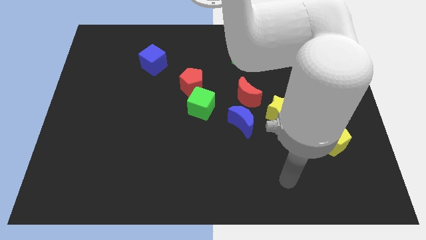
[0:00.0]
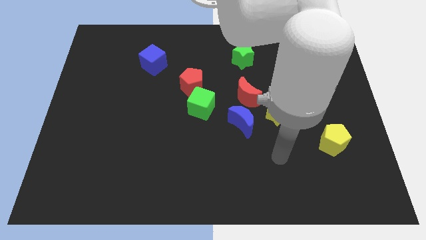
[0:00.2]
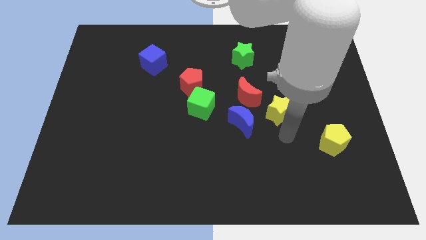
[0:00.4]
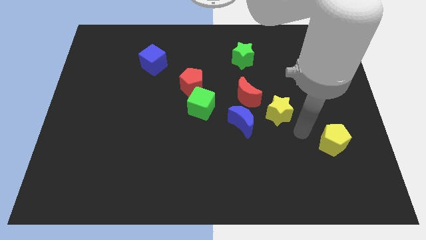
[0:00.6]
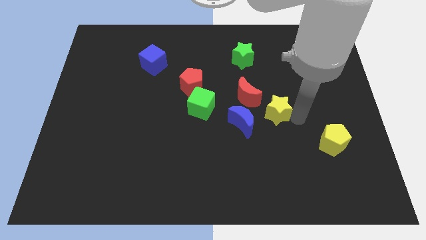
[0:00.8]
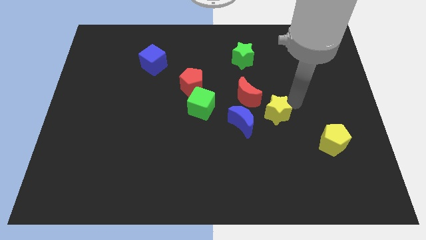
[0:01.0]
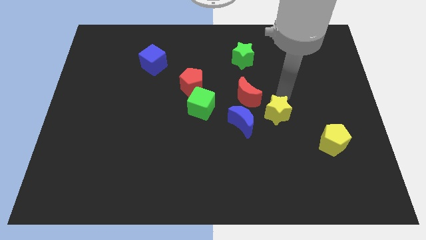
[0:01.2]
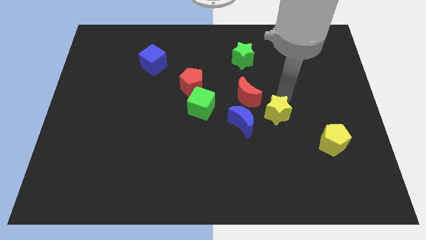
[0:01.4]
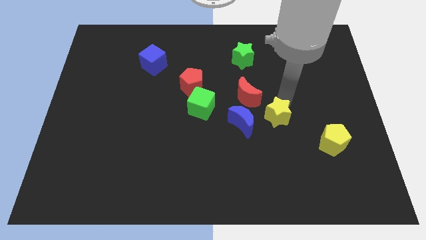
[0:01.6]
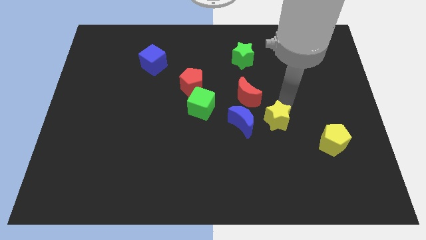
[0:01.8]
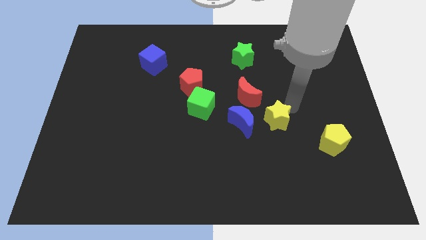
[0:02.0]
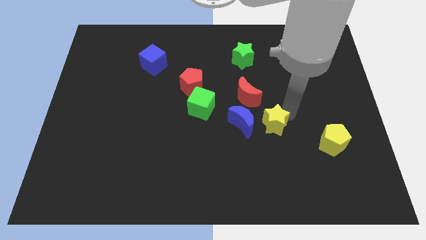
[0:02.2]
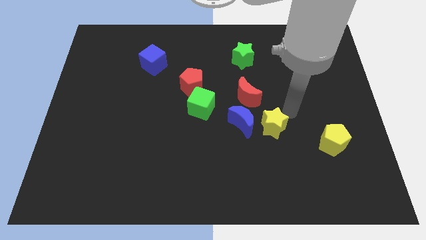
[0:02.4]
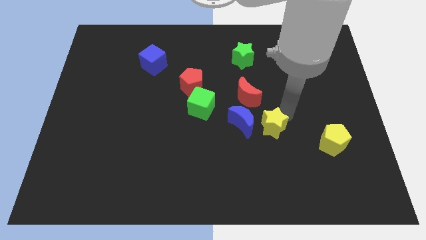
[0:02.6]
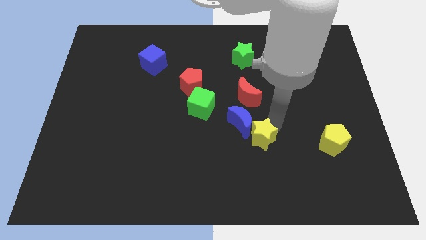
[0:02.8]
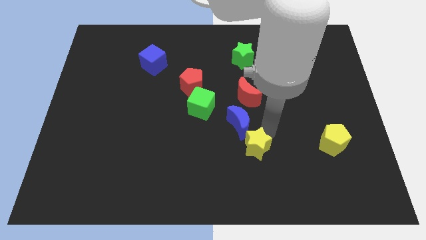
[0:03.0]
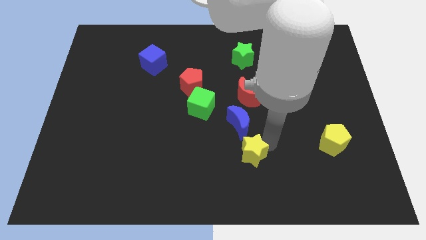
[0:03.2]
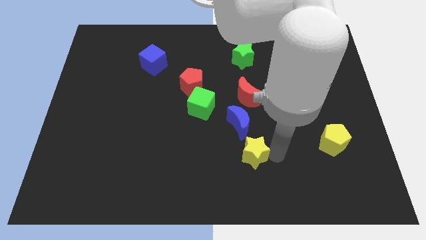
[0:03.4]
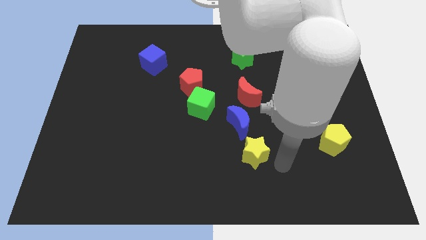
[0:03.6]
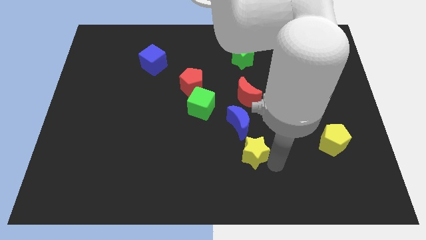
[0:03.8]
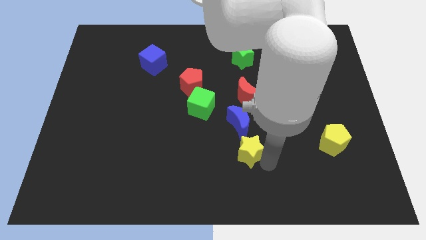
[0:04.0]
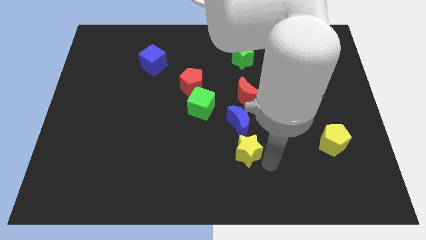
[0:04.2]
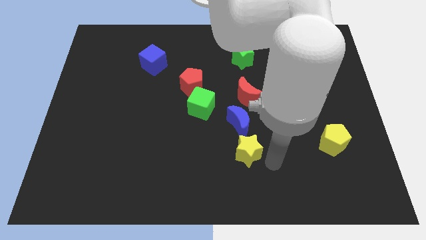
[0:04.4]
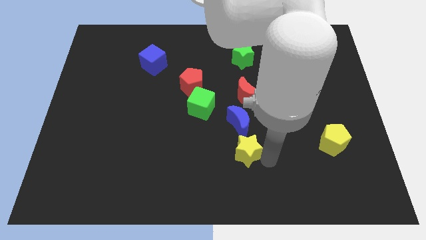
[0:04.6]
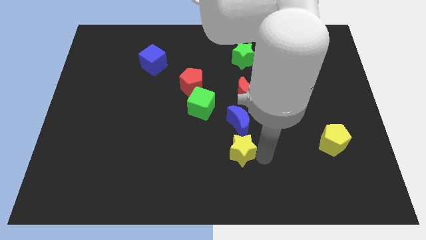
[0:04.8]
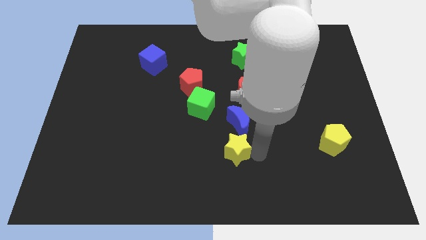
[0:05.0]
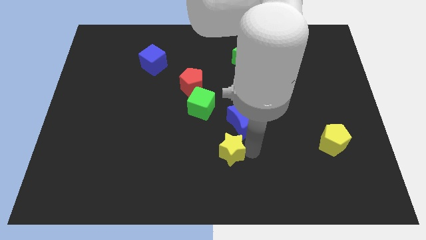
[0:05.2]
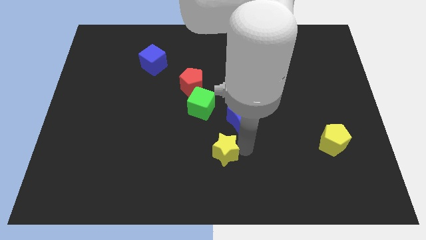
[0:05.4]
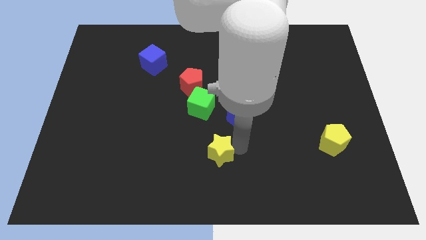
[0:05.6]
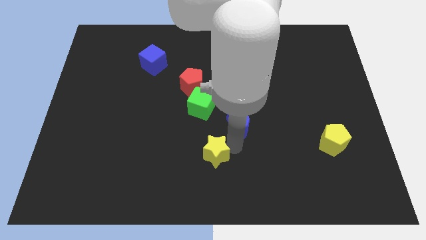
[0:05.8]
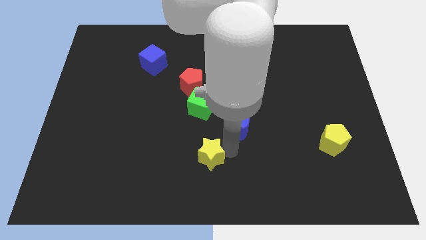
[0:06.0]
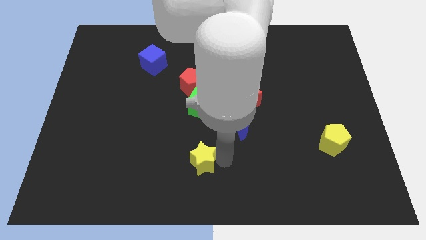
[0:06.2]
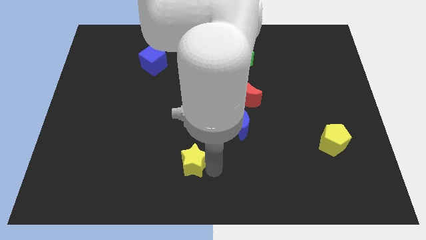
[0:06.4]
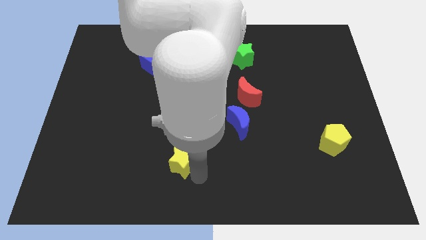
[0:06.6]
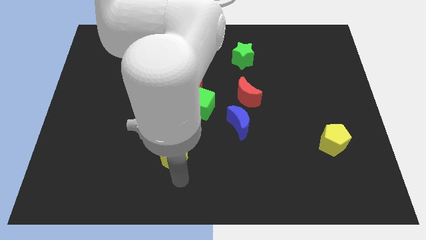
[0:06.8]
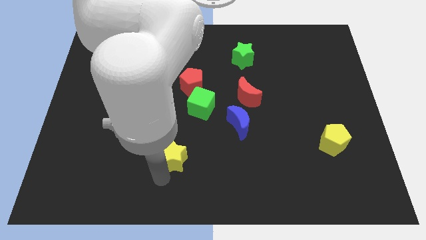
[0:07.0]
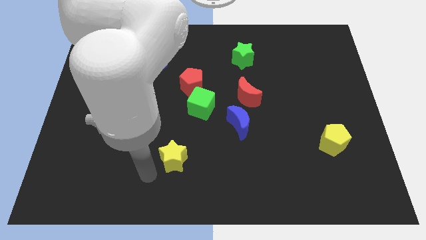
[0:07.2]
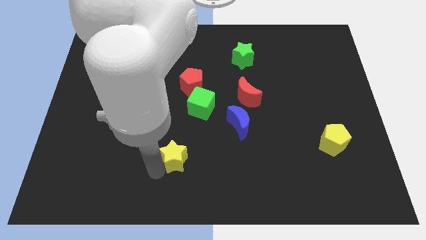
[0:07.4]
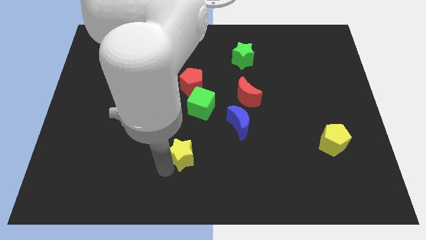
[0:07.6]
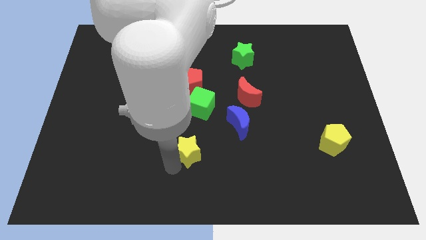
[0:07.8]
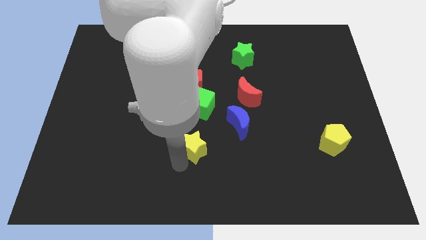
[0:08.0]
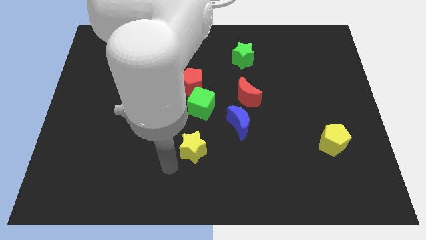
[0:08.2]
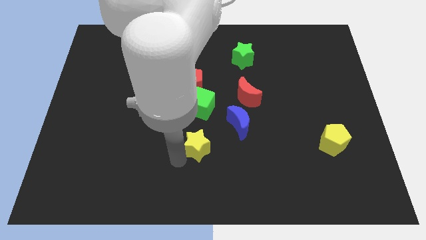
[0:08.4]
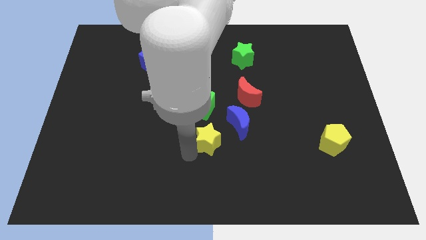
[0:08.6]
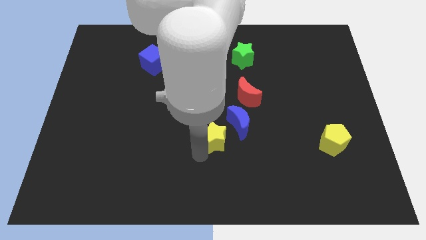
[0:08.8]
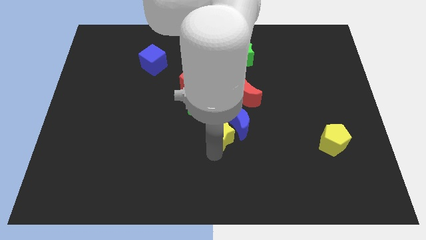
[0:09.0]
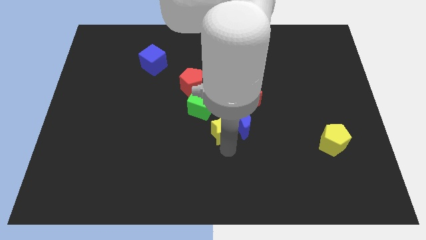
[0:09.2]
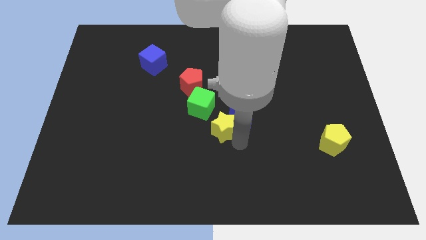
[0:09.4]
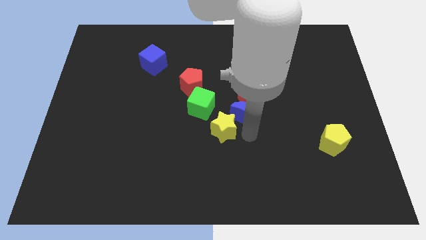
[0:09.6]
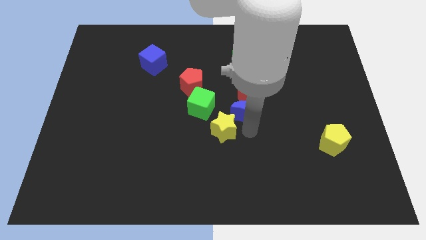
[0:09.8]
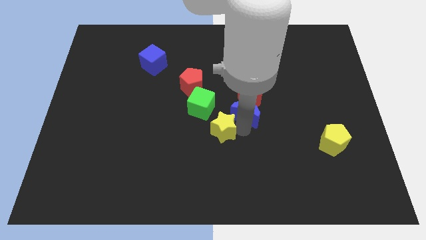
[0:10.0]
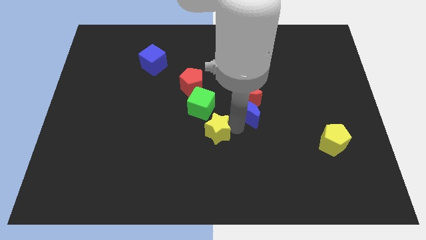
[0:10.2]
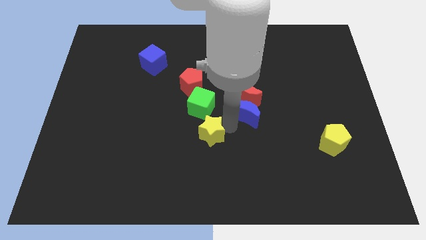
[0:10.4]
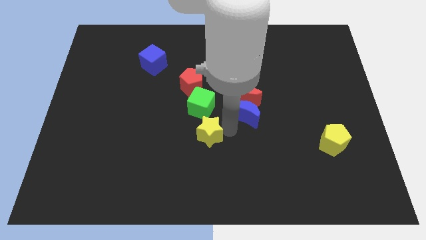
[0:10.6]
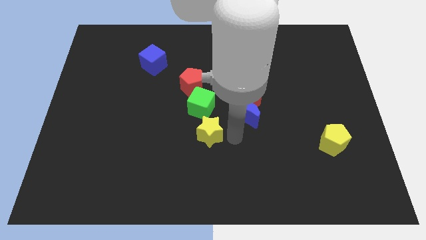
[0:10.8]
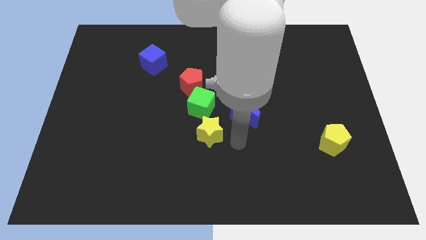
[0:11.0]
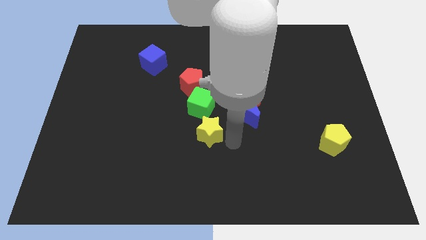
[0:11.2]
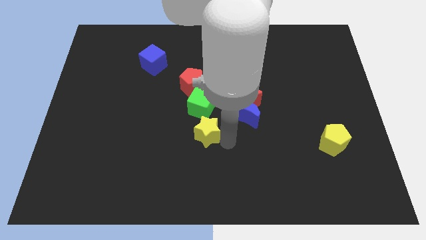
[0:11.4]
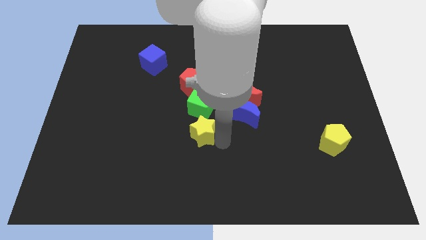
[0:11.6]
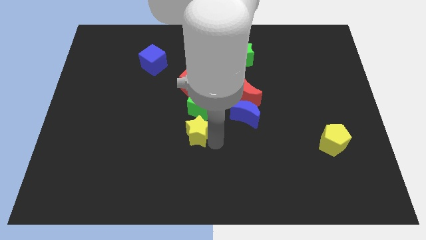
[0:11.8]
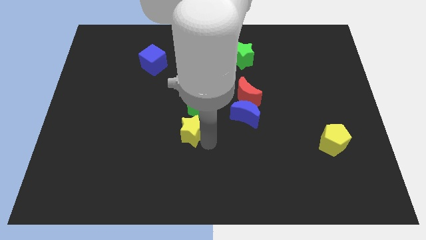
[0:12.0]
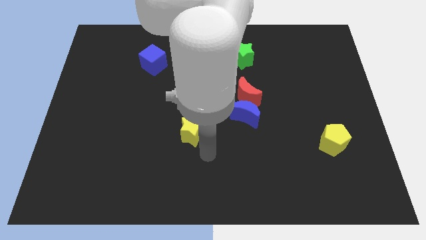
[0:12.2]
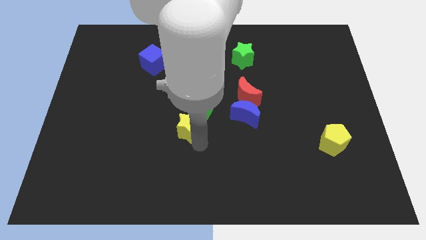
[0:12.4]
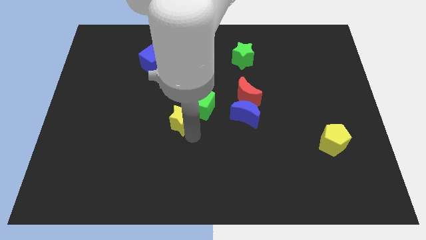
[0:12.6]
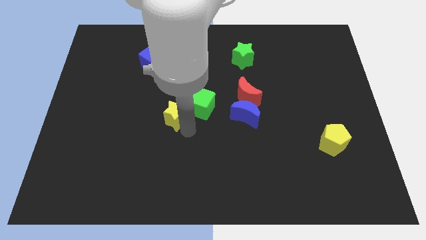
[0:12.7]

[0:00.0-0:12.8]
slide the yellow star to the bottom left of the red pentagon

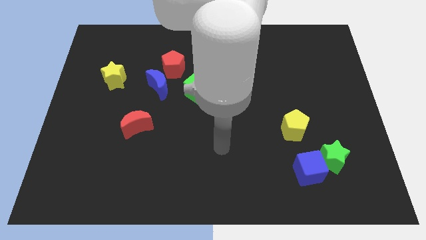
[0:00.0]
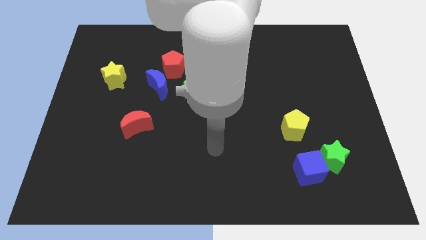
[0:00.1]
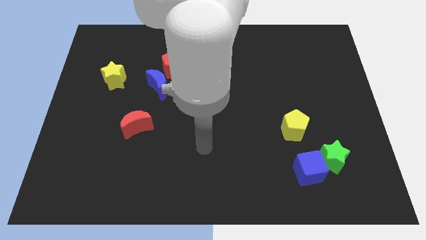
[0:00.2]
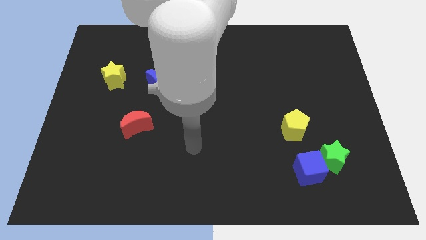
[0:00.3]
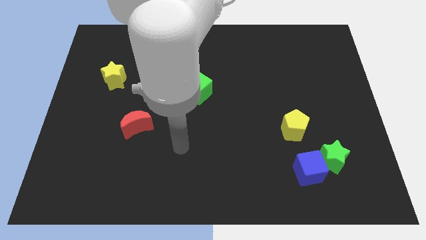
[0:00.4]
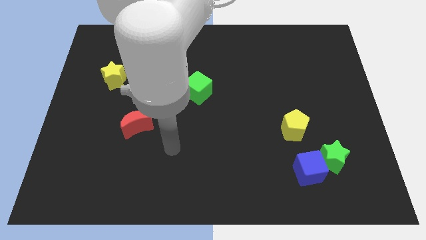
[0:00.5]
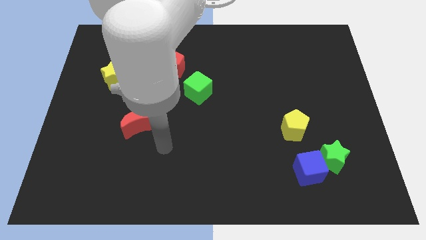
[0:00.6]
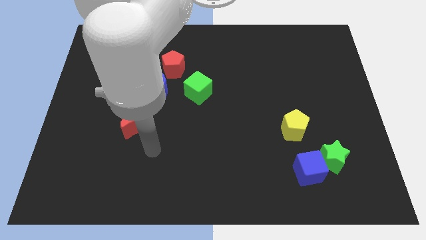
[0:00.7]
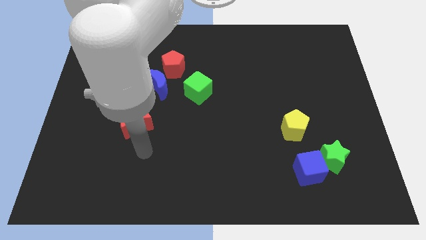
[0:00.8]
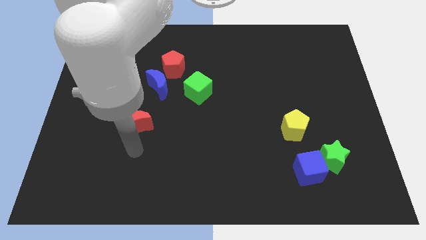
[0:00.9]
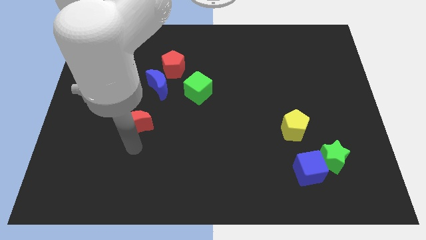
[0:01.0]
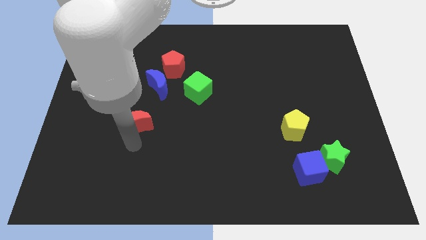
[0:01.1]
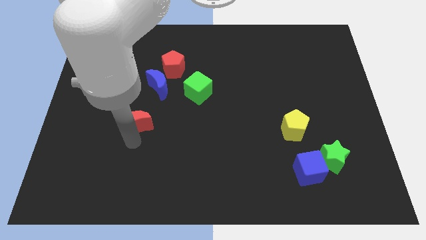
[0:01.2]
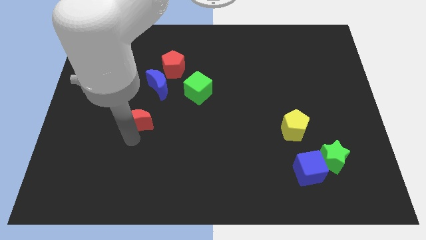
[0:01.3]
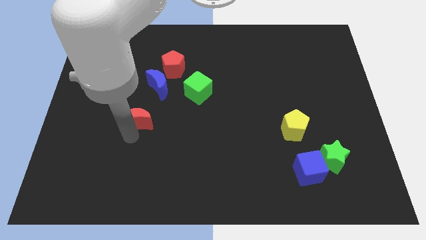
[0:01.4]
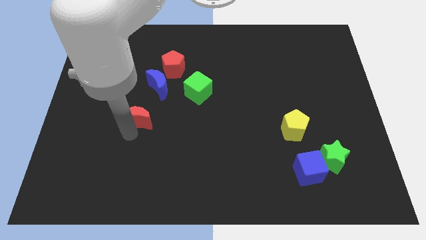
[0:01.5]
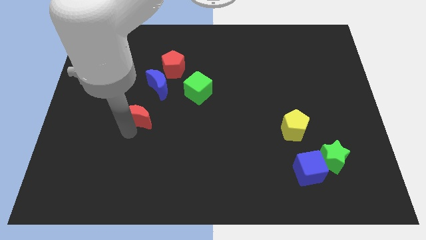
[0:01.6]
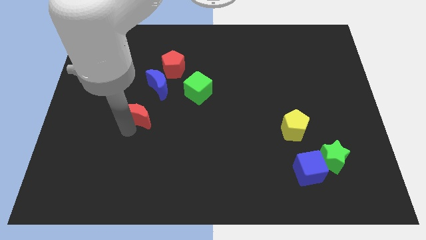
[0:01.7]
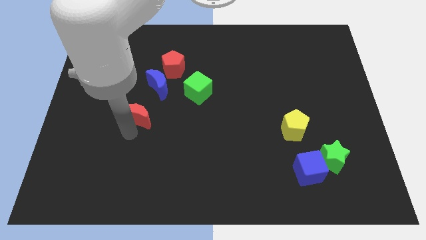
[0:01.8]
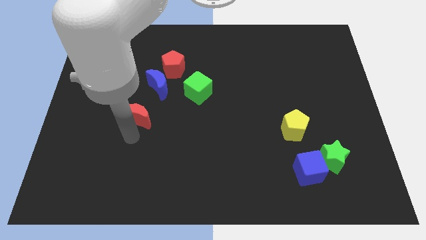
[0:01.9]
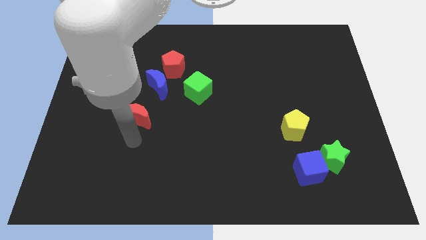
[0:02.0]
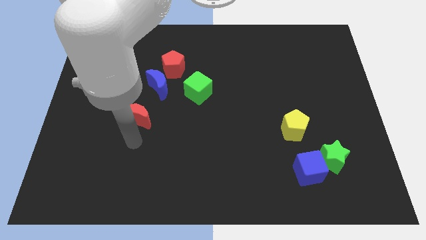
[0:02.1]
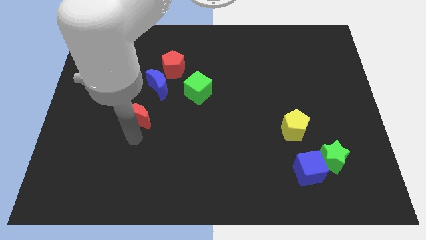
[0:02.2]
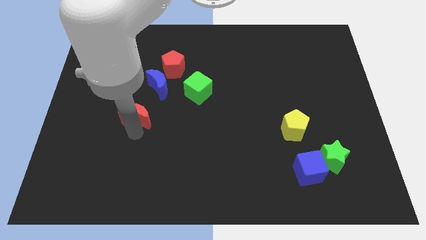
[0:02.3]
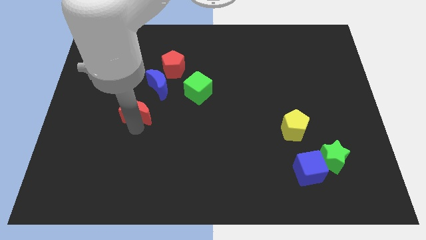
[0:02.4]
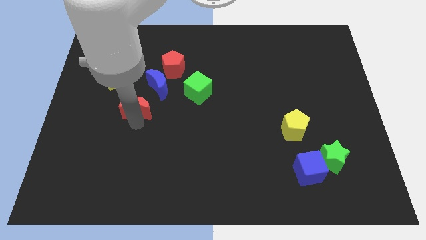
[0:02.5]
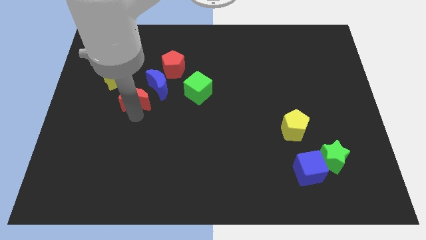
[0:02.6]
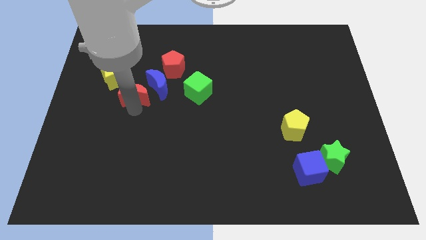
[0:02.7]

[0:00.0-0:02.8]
move the red moon diagonally down and to the left of the red pentagon
